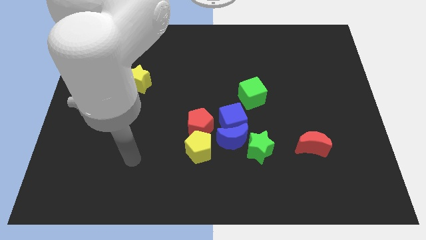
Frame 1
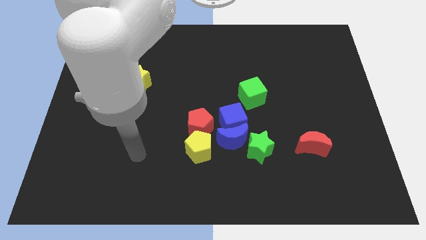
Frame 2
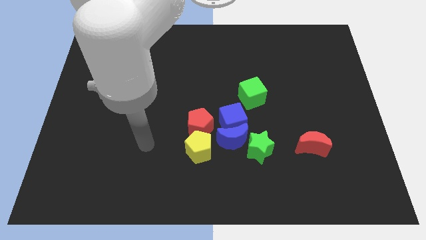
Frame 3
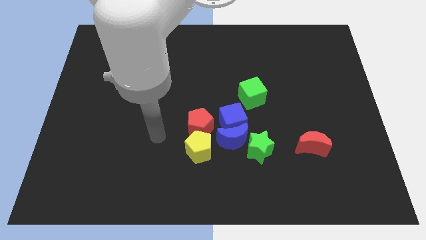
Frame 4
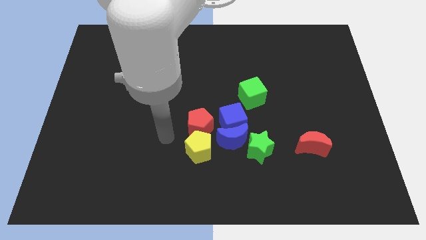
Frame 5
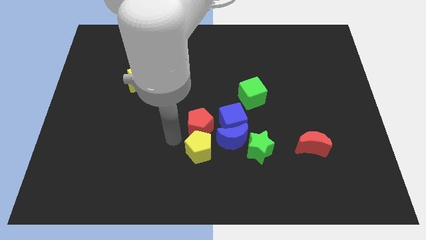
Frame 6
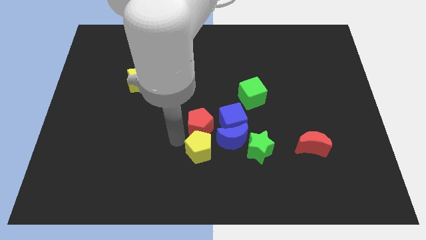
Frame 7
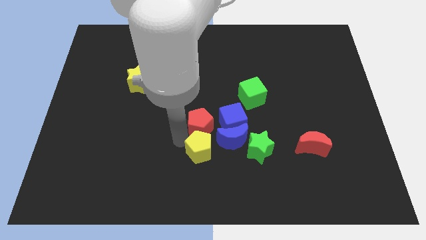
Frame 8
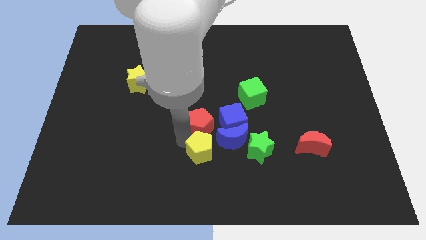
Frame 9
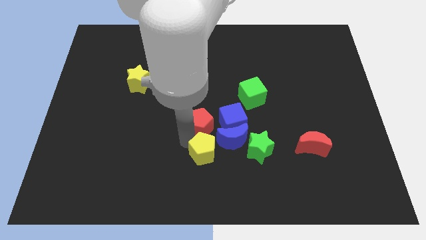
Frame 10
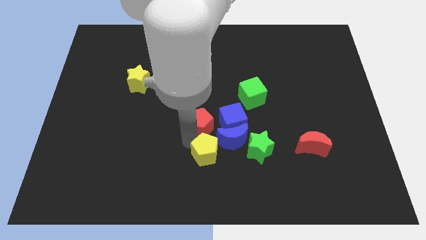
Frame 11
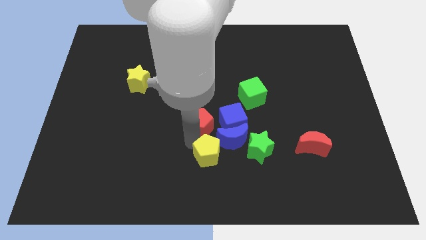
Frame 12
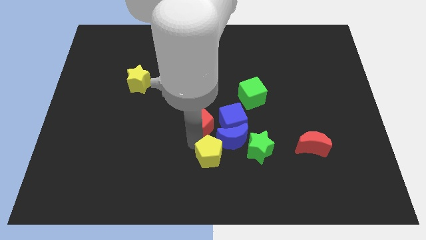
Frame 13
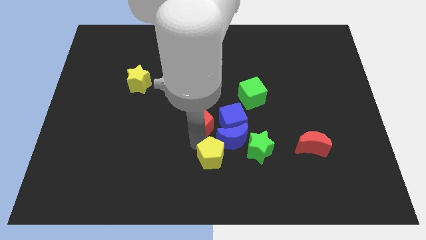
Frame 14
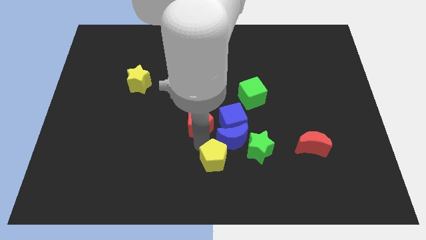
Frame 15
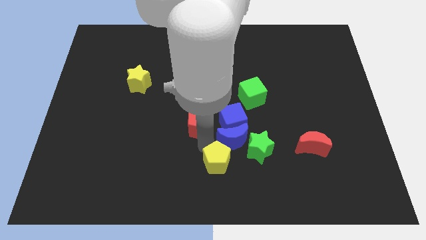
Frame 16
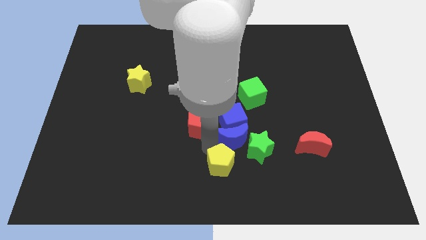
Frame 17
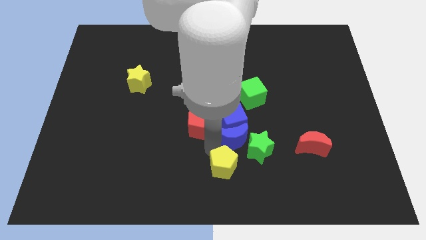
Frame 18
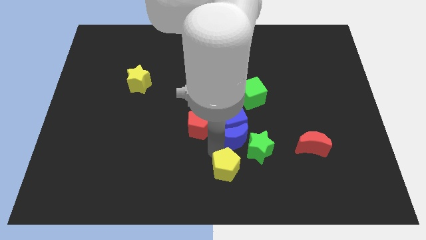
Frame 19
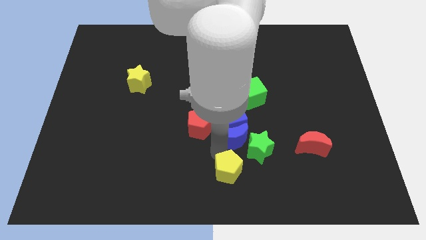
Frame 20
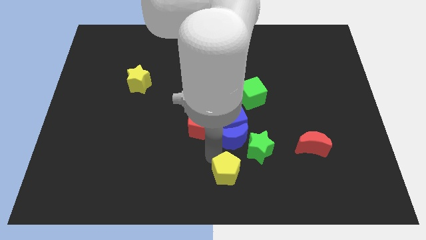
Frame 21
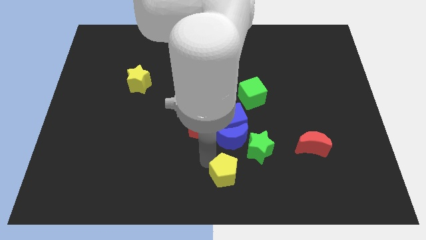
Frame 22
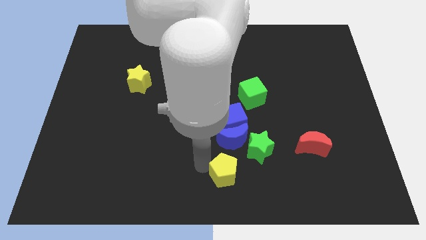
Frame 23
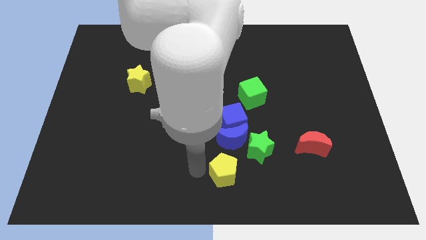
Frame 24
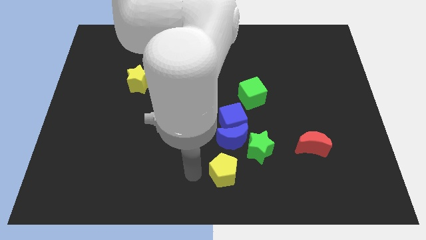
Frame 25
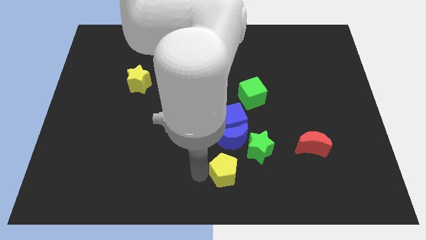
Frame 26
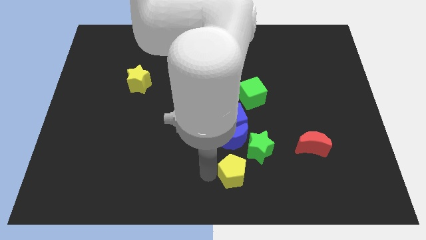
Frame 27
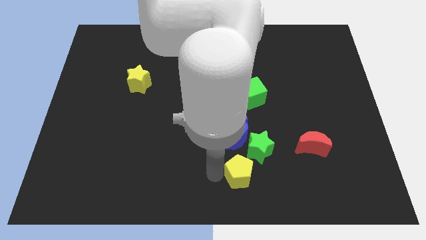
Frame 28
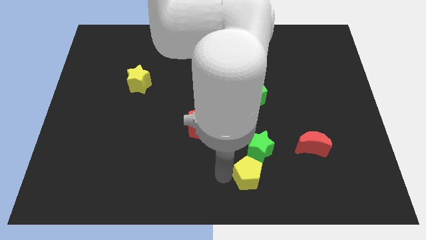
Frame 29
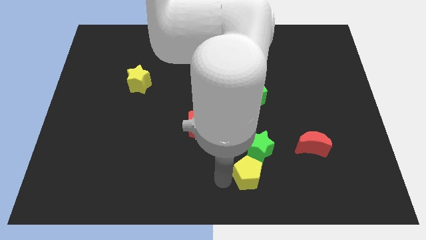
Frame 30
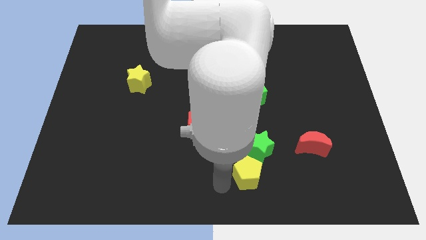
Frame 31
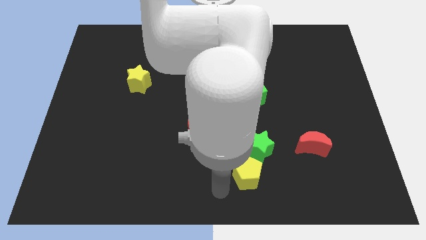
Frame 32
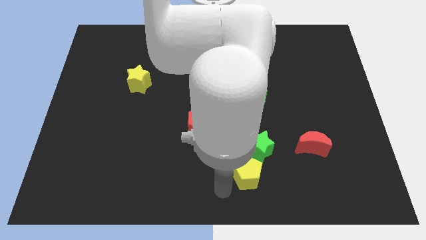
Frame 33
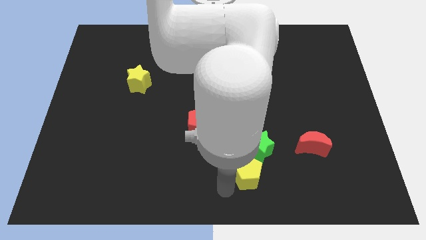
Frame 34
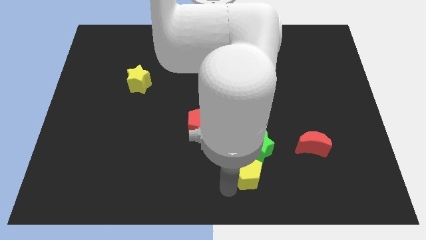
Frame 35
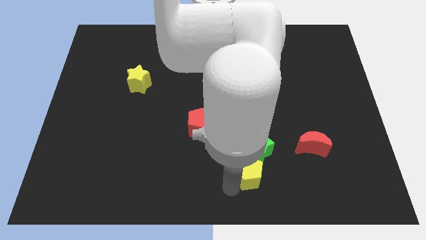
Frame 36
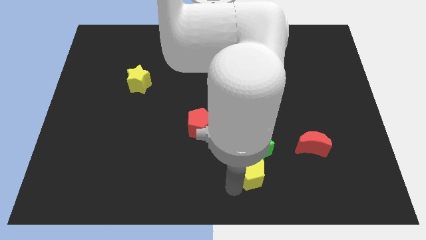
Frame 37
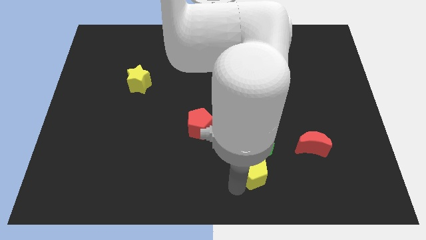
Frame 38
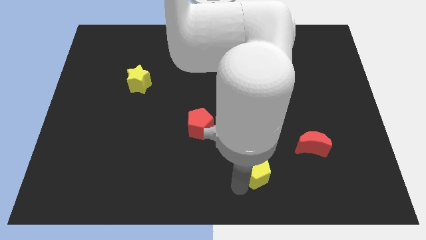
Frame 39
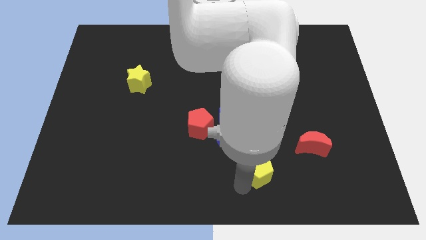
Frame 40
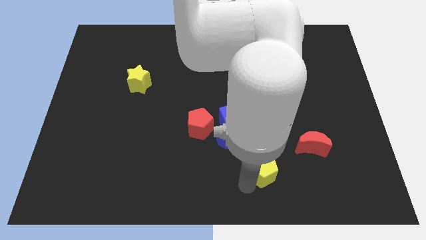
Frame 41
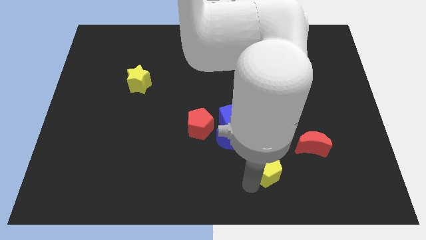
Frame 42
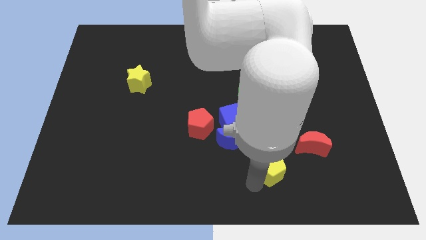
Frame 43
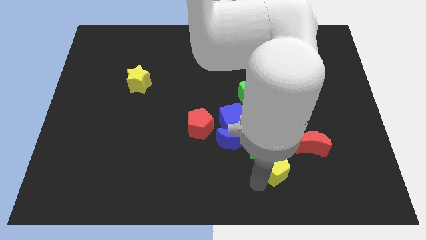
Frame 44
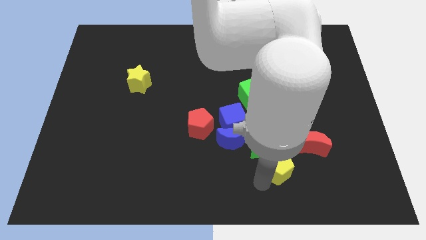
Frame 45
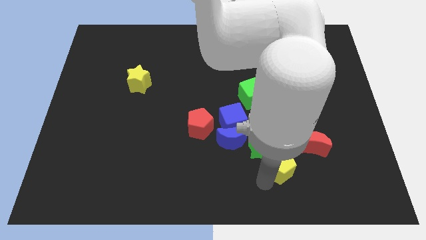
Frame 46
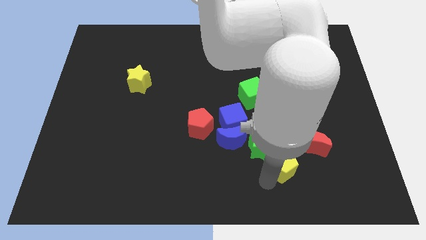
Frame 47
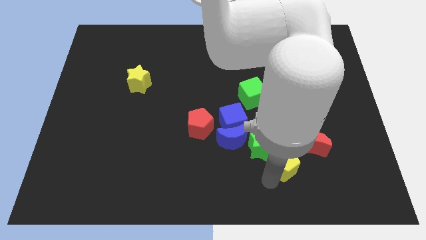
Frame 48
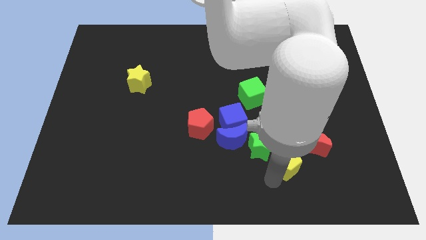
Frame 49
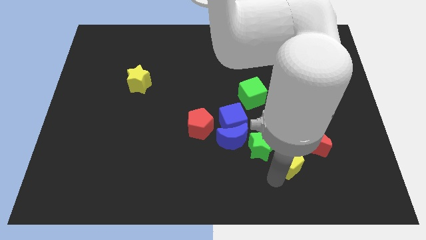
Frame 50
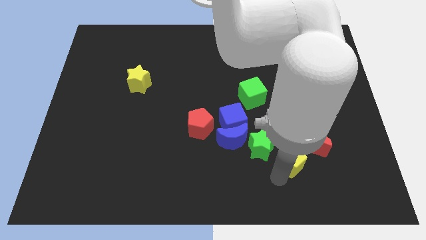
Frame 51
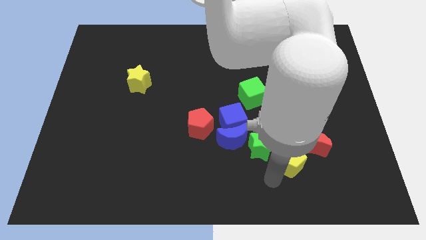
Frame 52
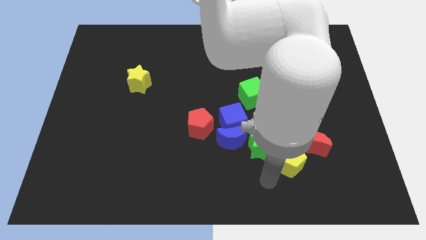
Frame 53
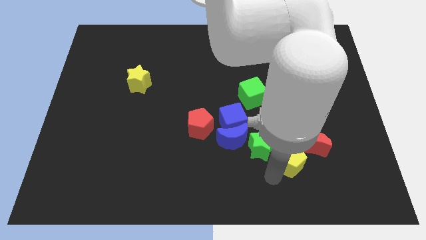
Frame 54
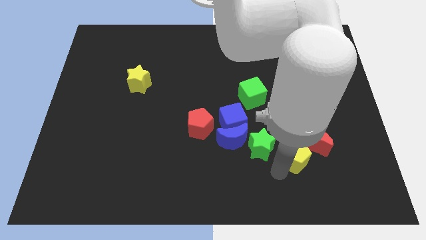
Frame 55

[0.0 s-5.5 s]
slide the yellow pentagon to the red moon

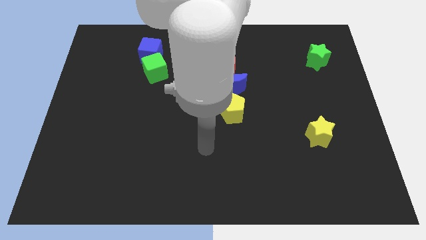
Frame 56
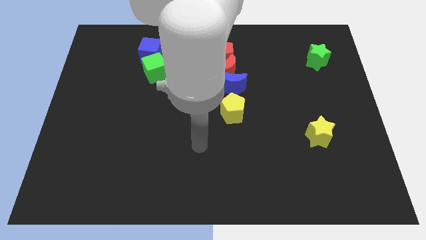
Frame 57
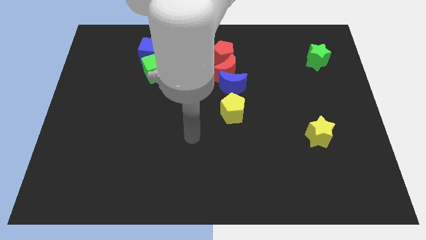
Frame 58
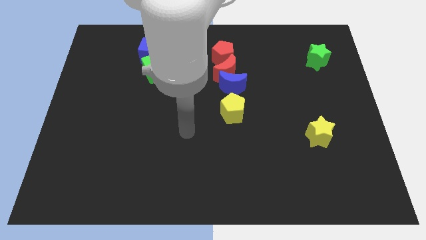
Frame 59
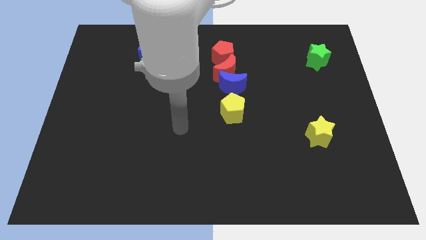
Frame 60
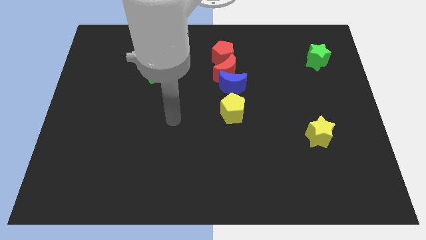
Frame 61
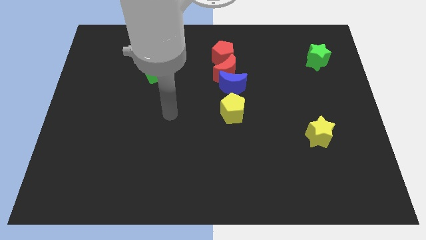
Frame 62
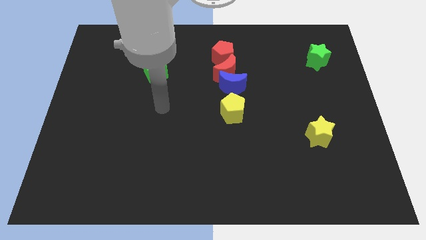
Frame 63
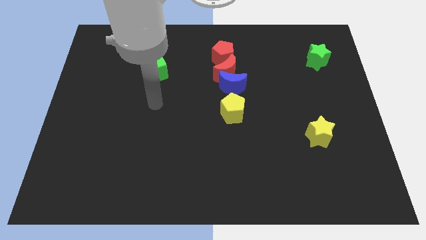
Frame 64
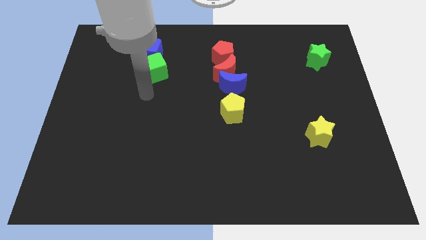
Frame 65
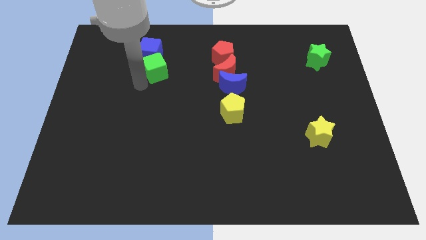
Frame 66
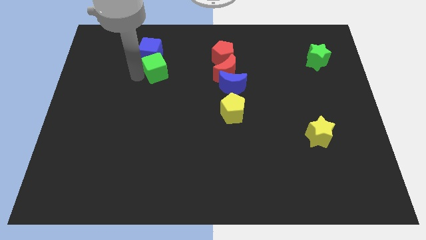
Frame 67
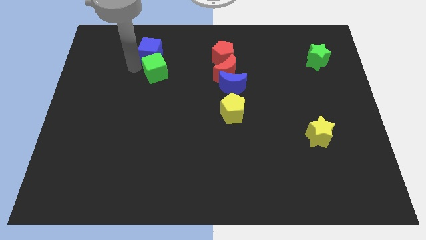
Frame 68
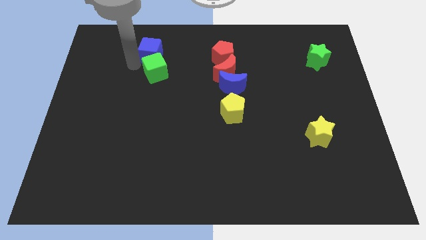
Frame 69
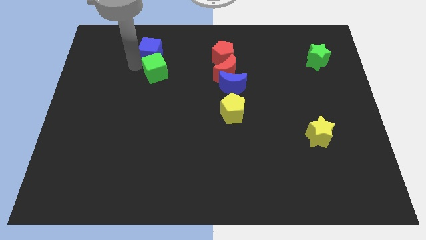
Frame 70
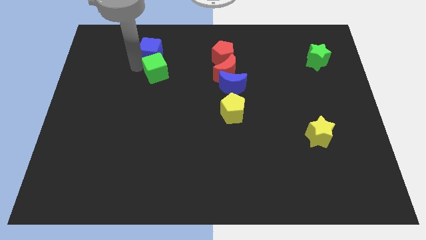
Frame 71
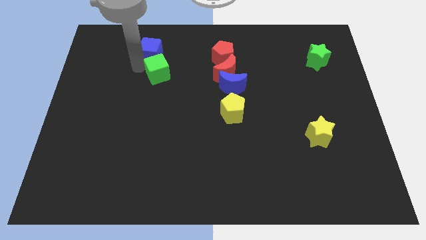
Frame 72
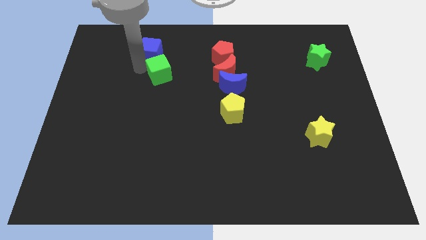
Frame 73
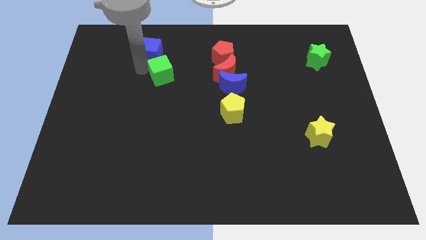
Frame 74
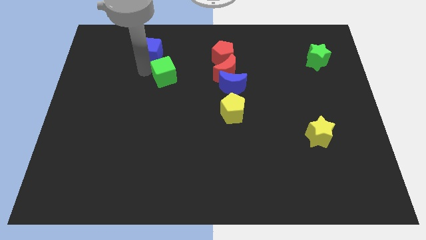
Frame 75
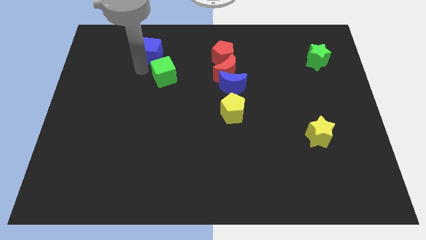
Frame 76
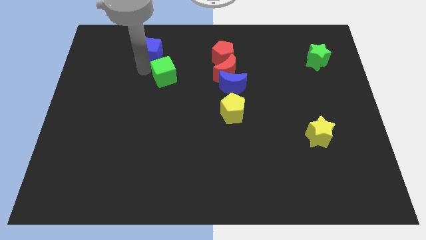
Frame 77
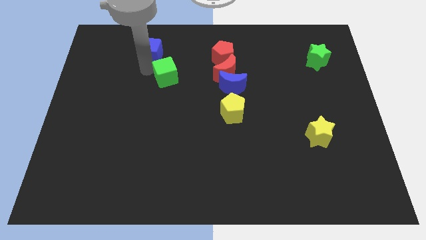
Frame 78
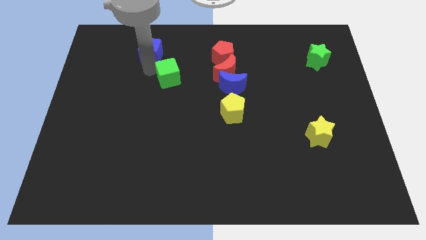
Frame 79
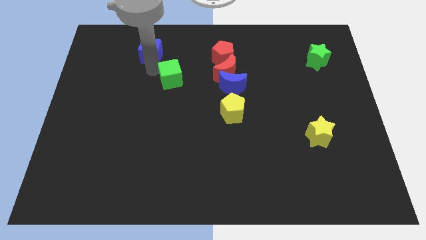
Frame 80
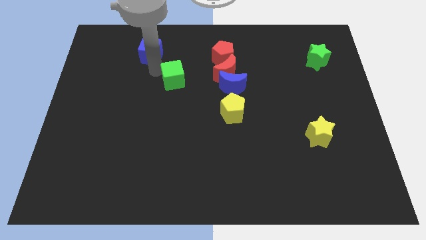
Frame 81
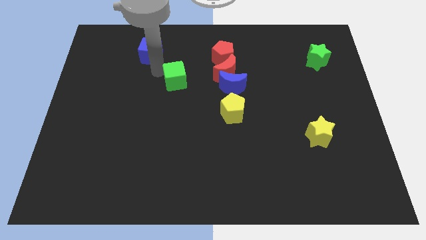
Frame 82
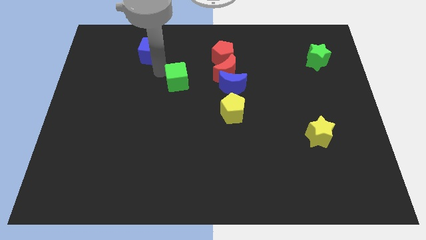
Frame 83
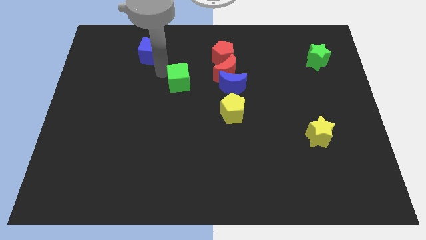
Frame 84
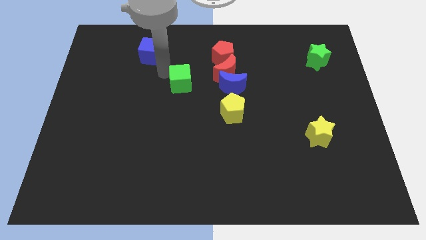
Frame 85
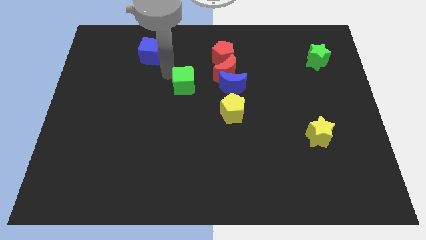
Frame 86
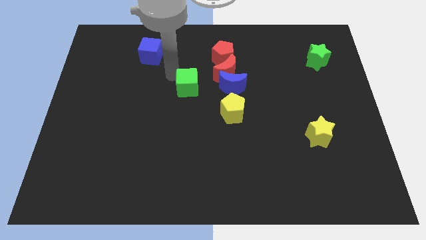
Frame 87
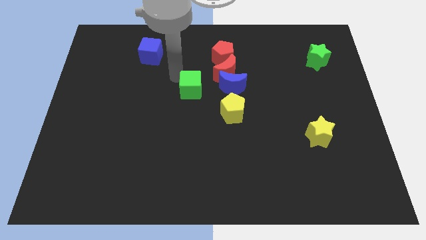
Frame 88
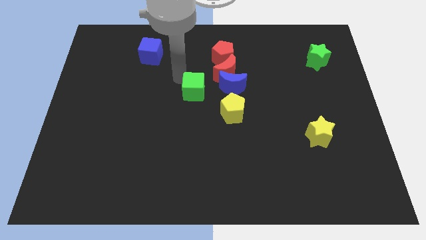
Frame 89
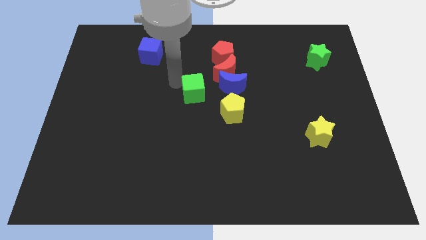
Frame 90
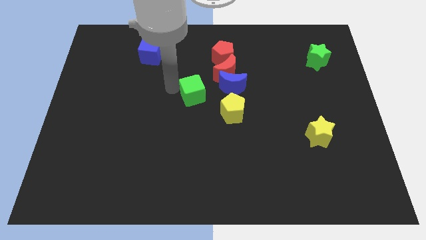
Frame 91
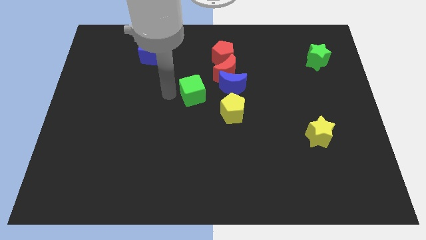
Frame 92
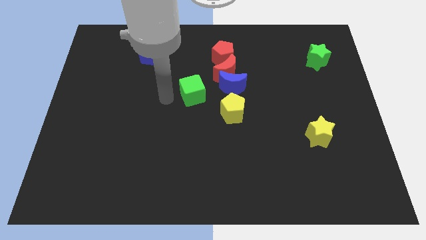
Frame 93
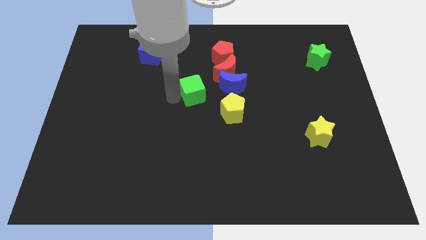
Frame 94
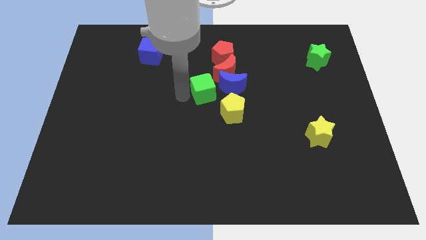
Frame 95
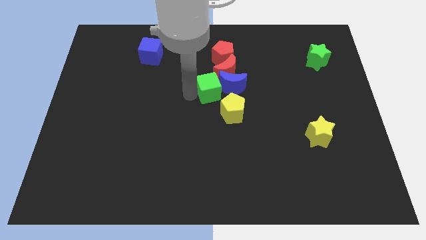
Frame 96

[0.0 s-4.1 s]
move the green cube towards the blue moon
